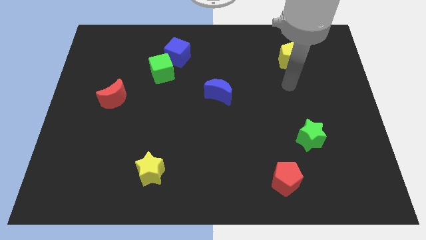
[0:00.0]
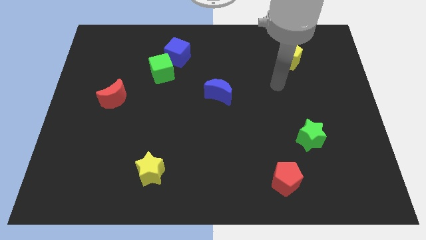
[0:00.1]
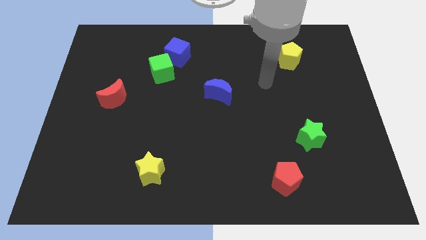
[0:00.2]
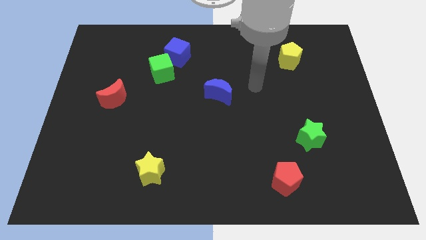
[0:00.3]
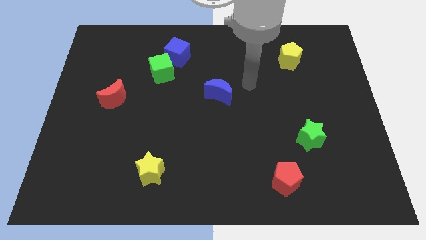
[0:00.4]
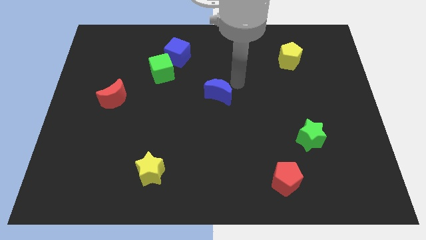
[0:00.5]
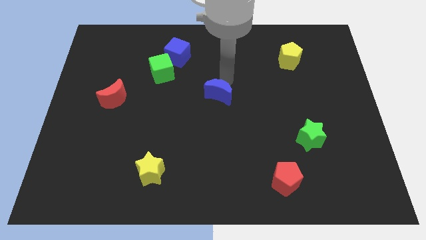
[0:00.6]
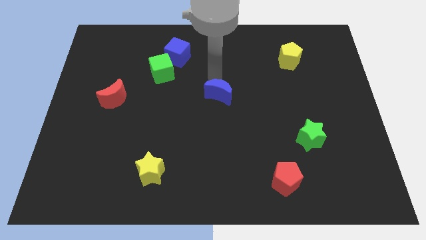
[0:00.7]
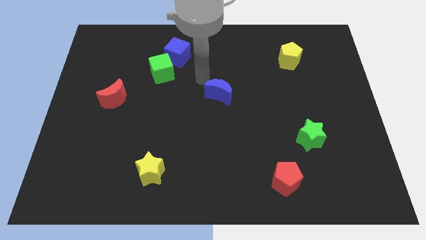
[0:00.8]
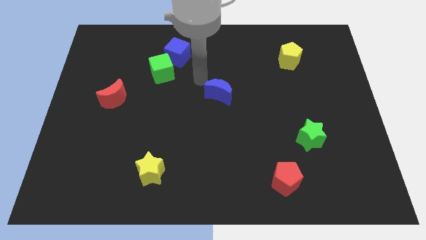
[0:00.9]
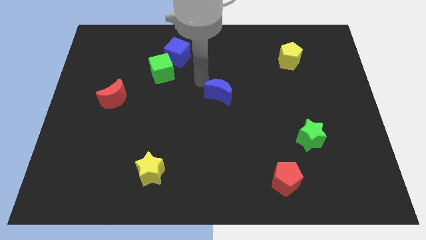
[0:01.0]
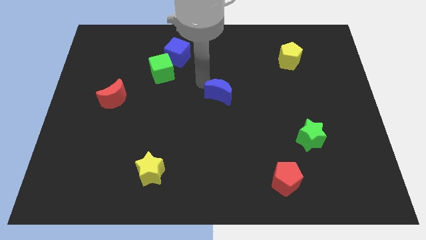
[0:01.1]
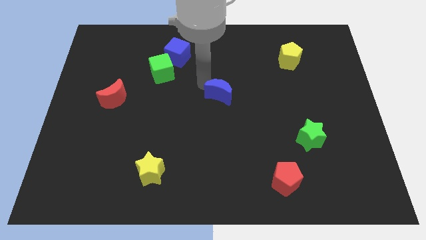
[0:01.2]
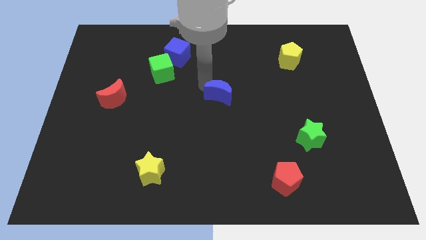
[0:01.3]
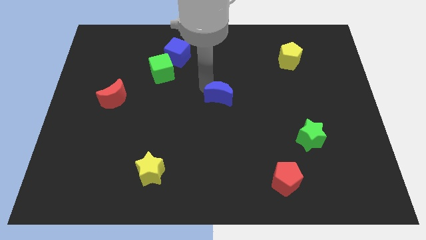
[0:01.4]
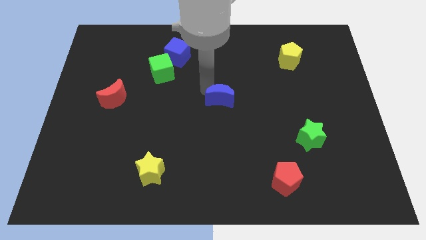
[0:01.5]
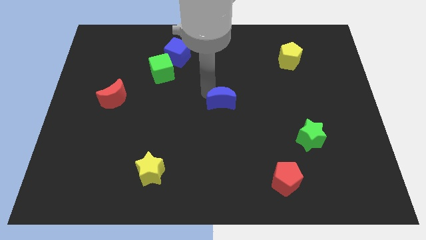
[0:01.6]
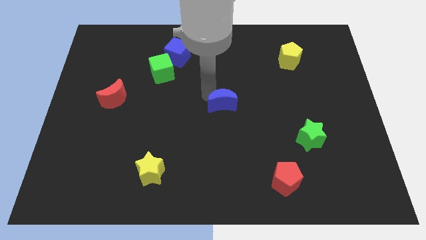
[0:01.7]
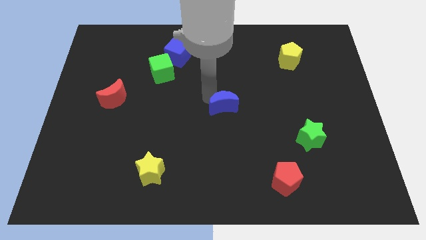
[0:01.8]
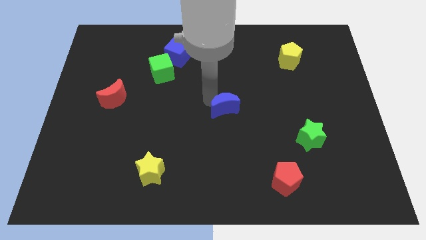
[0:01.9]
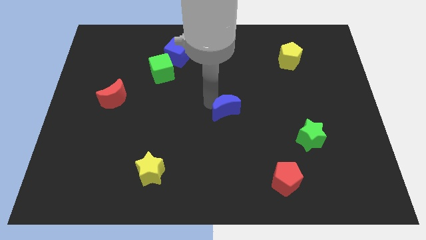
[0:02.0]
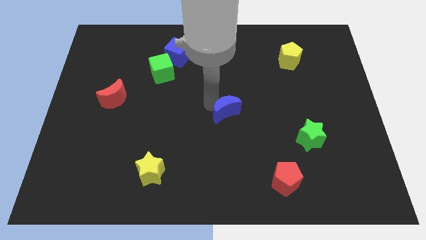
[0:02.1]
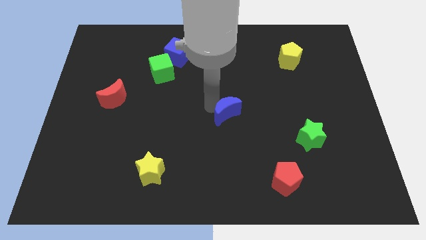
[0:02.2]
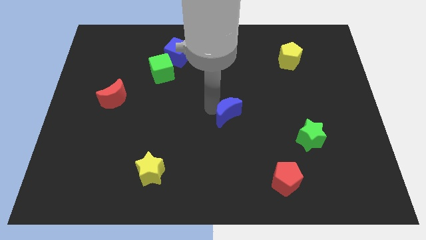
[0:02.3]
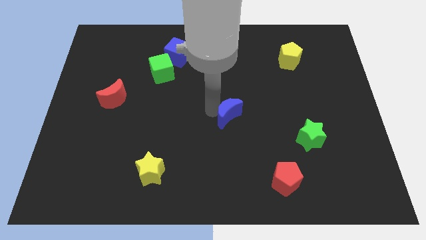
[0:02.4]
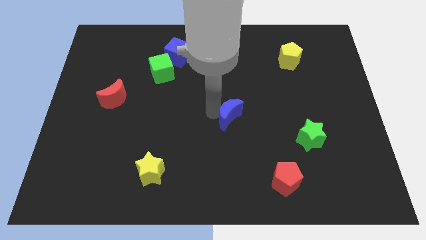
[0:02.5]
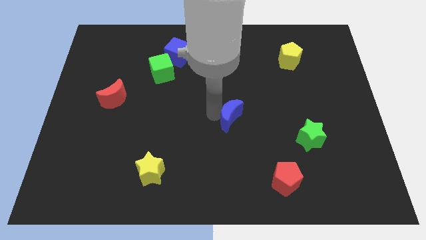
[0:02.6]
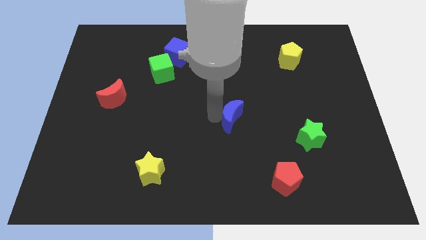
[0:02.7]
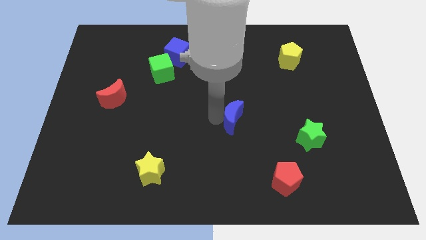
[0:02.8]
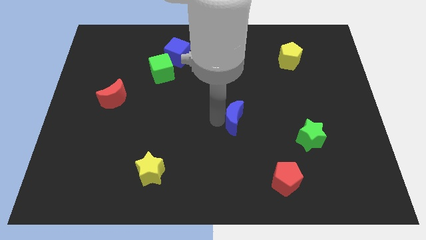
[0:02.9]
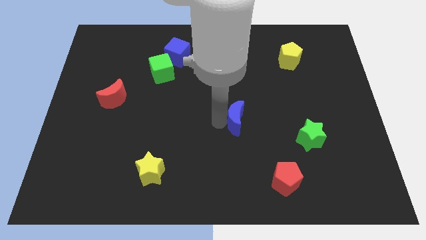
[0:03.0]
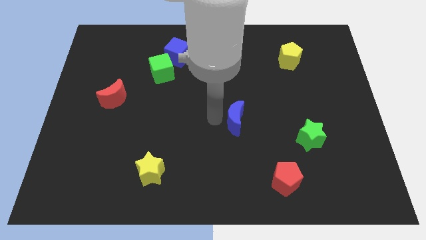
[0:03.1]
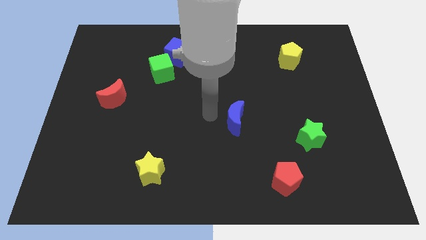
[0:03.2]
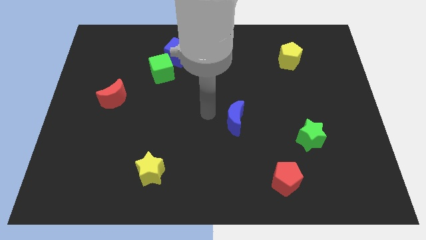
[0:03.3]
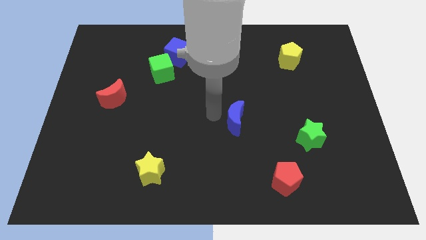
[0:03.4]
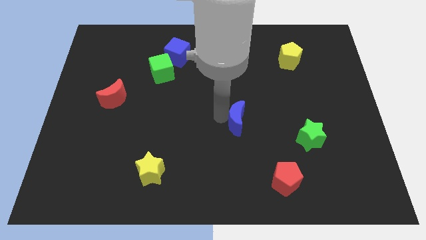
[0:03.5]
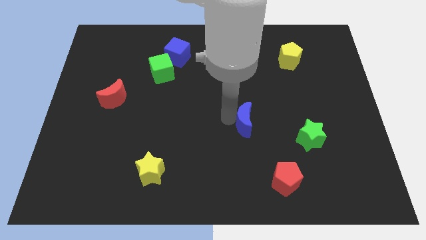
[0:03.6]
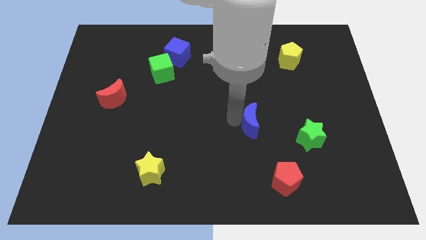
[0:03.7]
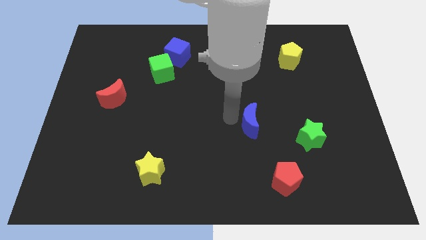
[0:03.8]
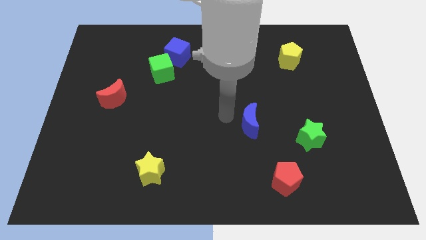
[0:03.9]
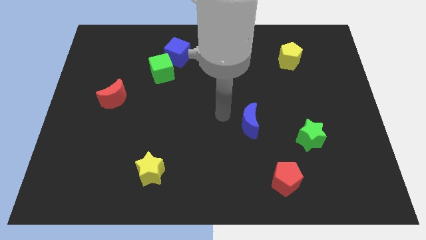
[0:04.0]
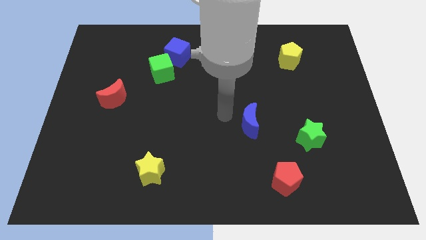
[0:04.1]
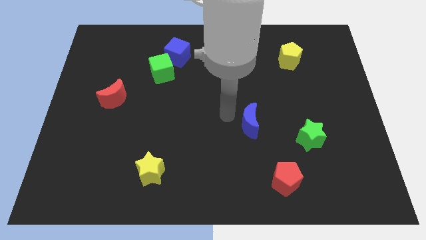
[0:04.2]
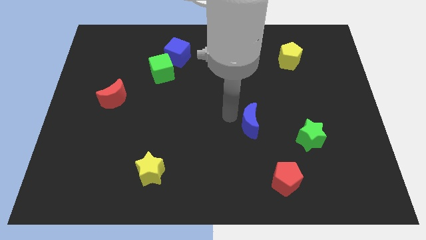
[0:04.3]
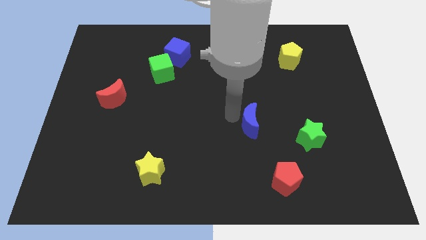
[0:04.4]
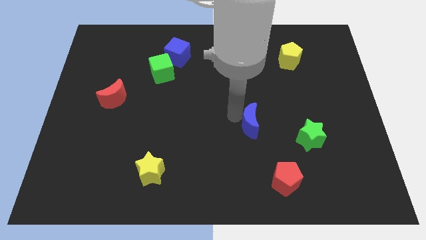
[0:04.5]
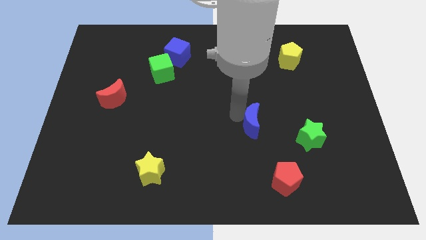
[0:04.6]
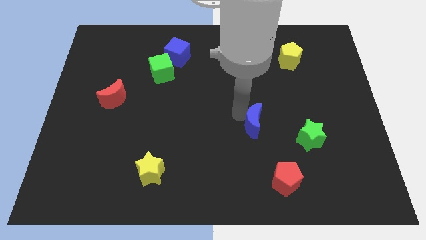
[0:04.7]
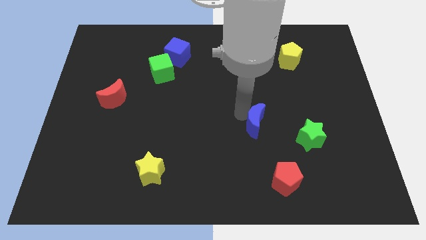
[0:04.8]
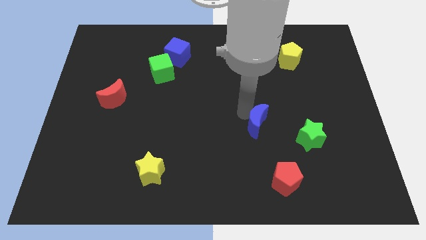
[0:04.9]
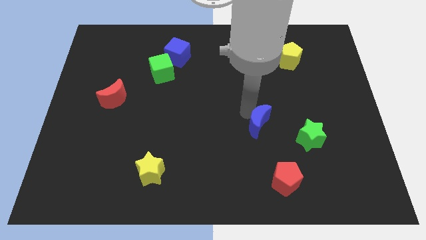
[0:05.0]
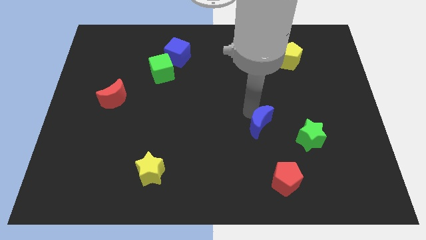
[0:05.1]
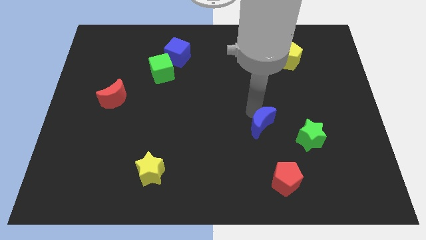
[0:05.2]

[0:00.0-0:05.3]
slide the blue moon above the red pentagon

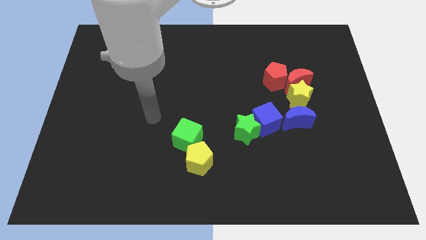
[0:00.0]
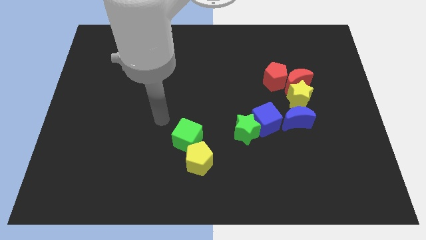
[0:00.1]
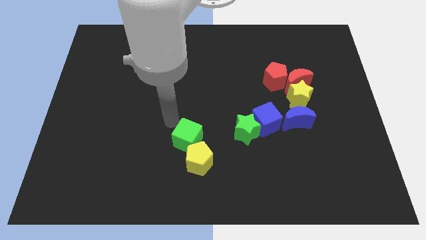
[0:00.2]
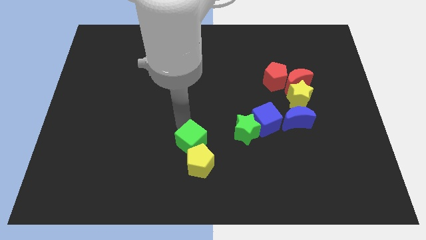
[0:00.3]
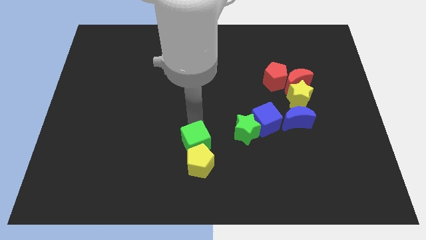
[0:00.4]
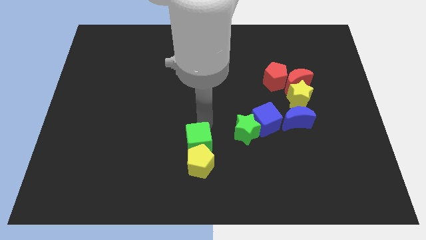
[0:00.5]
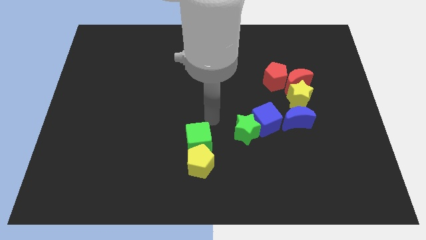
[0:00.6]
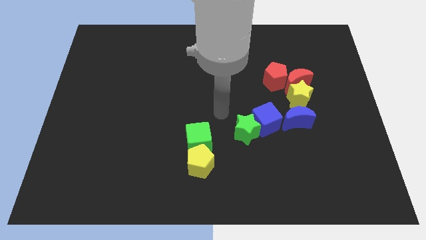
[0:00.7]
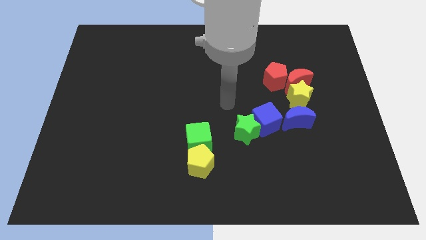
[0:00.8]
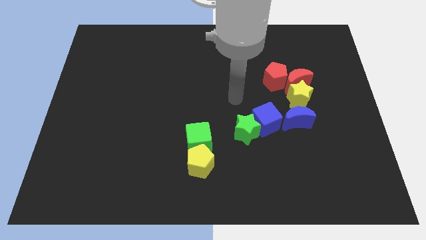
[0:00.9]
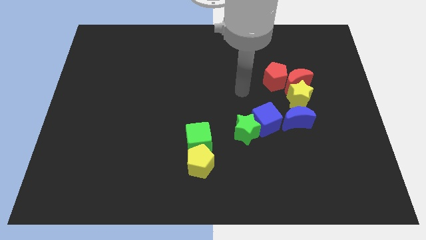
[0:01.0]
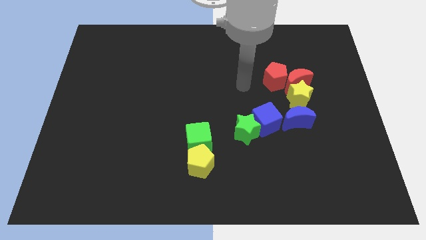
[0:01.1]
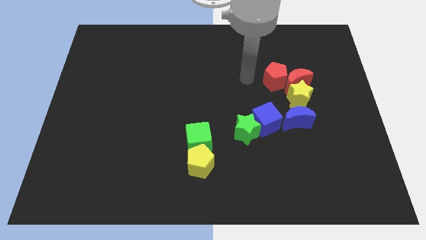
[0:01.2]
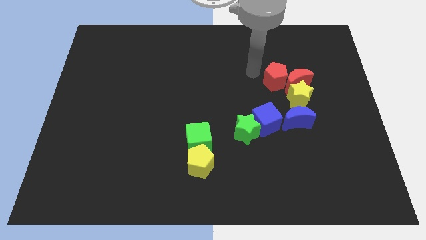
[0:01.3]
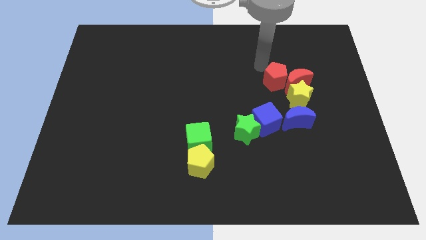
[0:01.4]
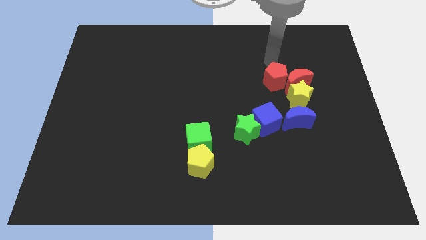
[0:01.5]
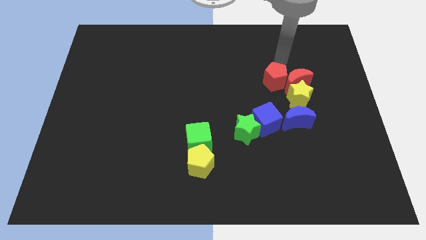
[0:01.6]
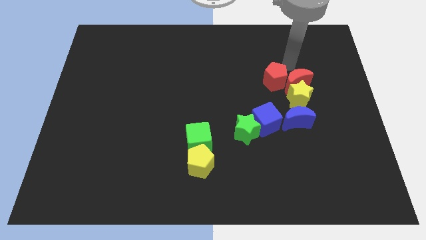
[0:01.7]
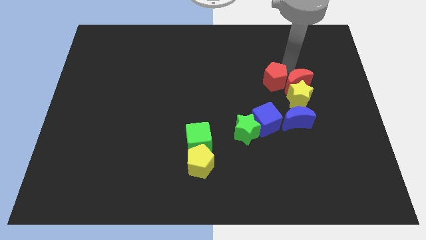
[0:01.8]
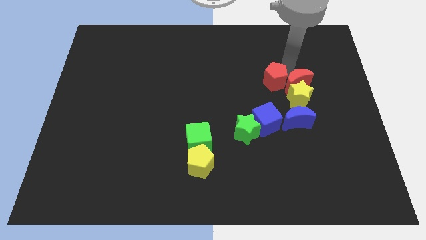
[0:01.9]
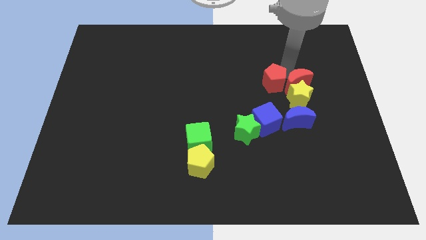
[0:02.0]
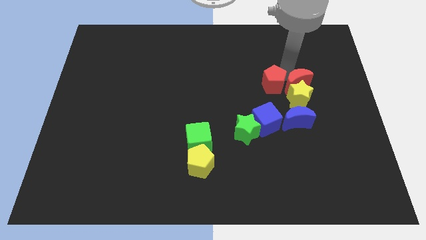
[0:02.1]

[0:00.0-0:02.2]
move the red pentagon left of the yellow star
